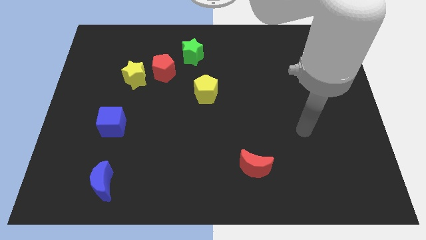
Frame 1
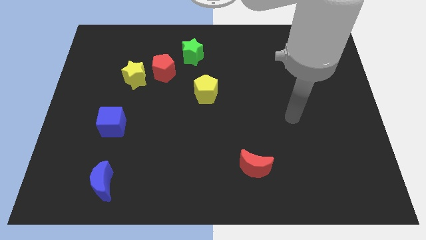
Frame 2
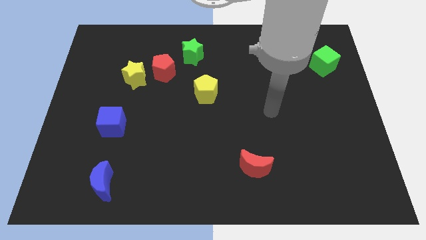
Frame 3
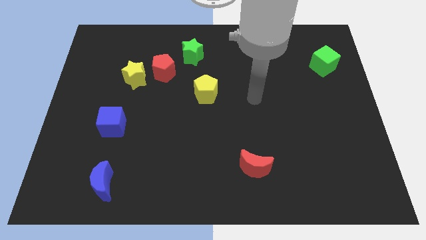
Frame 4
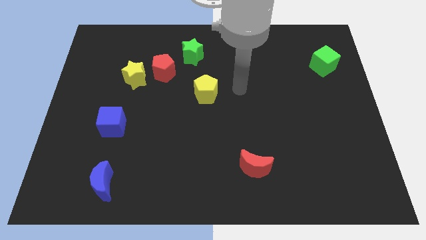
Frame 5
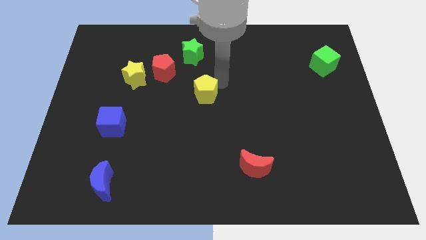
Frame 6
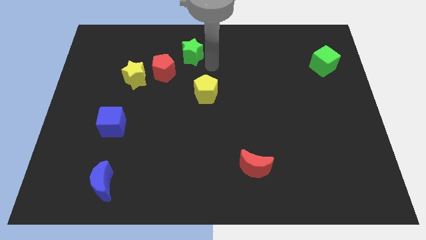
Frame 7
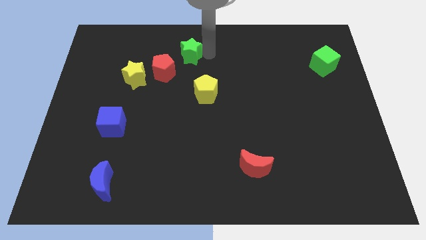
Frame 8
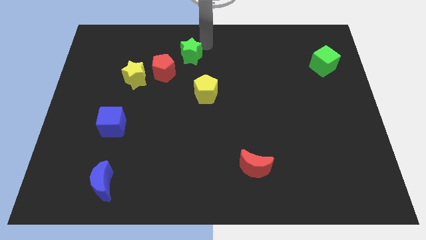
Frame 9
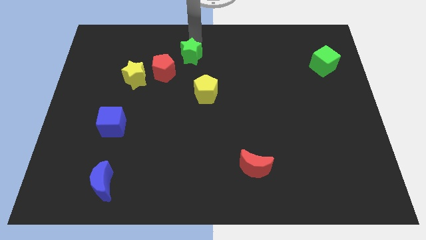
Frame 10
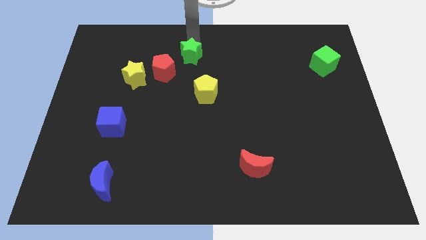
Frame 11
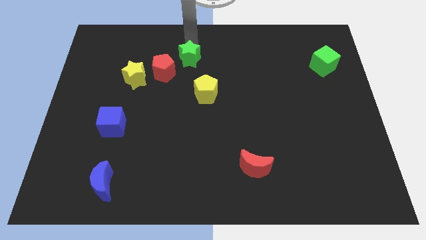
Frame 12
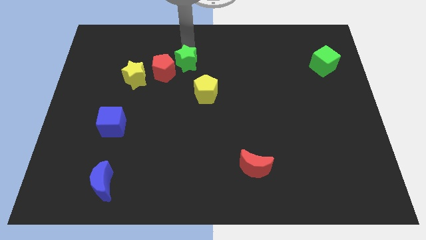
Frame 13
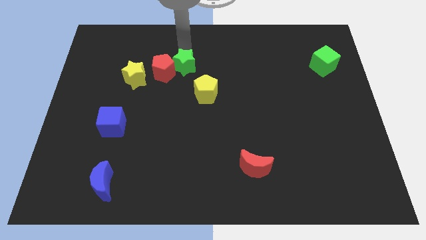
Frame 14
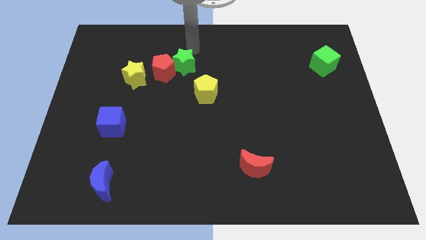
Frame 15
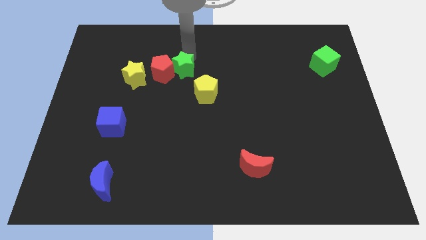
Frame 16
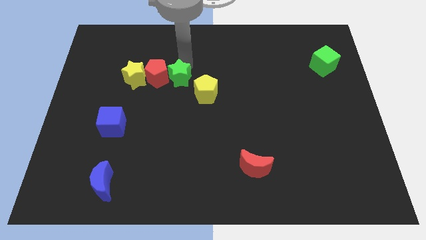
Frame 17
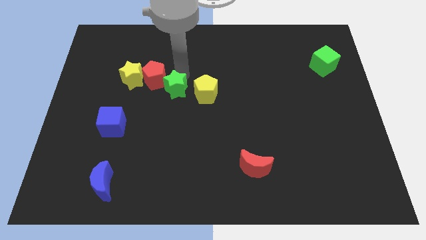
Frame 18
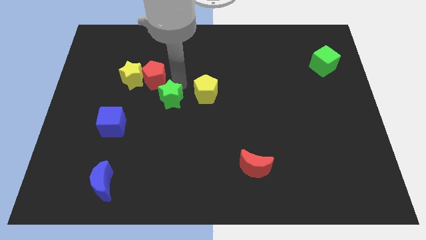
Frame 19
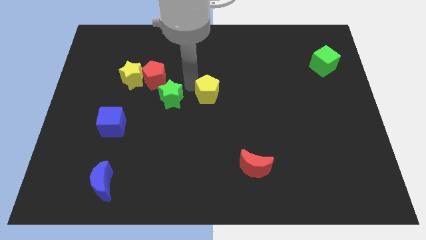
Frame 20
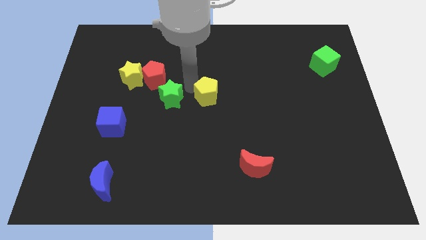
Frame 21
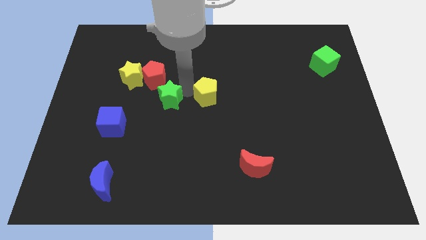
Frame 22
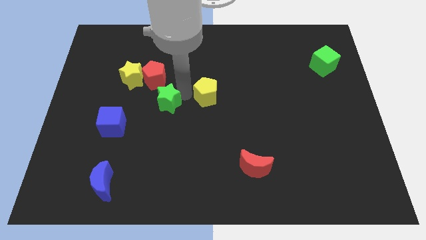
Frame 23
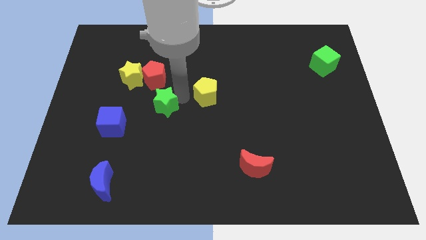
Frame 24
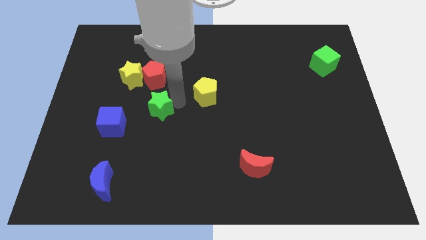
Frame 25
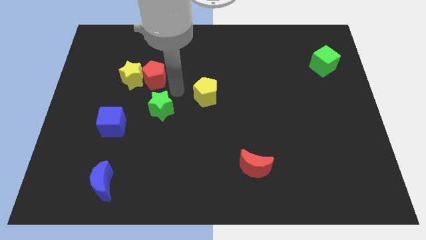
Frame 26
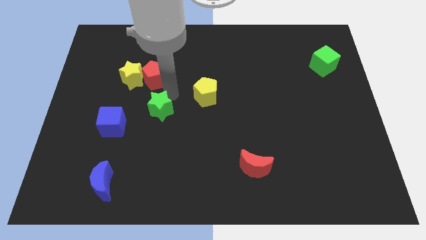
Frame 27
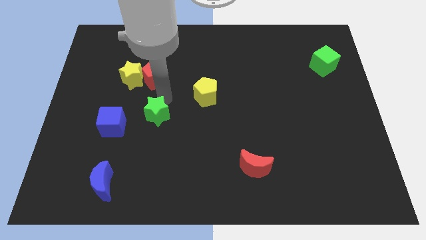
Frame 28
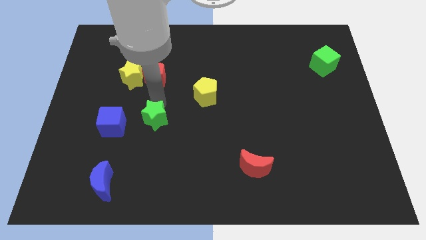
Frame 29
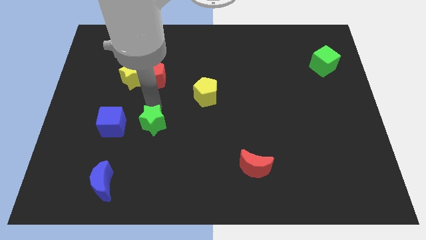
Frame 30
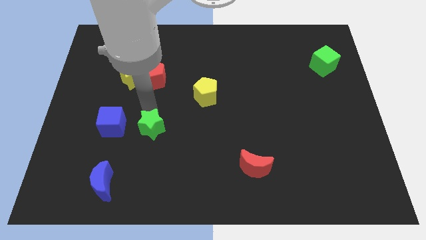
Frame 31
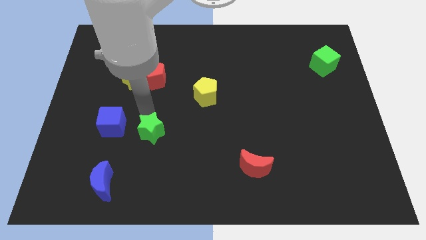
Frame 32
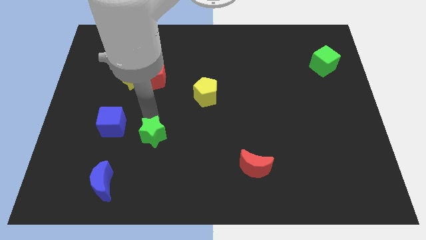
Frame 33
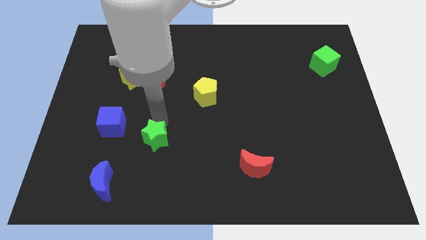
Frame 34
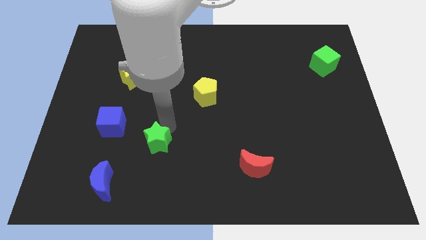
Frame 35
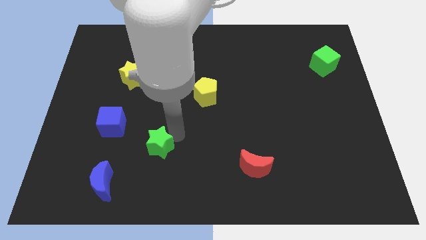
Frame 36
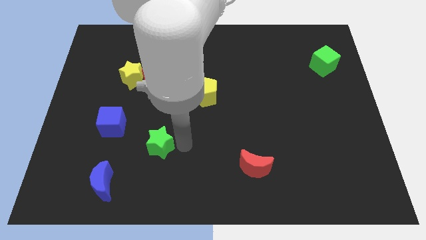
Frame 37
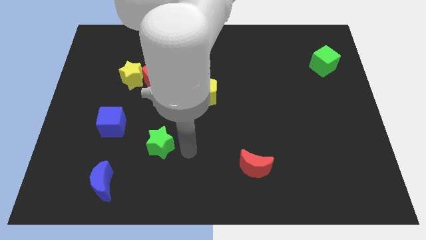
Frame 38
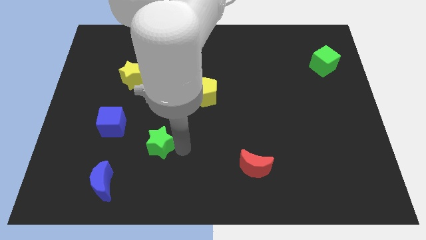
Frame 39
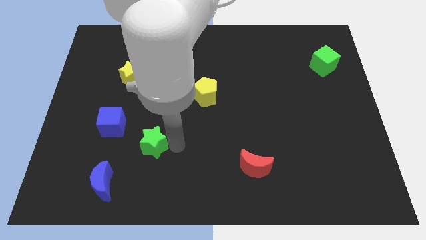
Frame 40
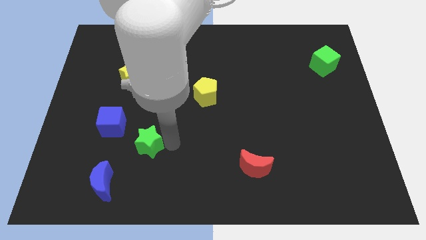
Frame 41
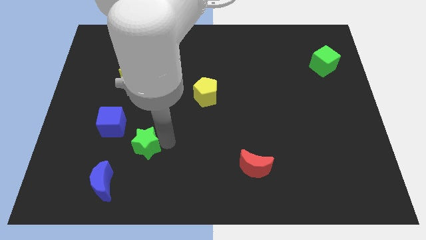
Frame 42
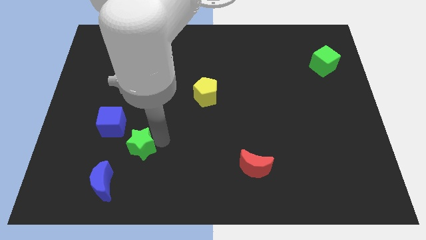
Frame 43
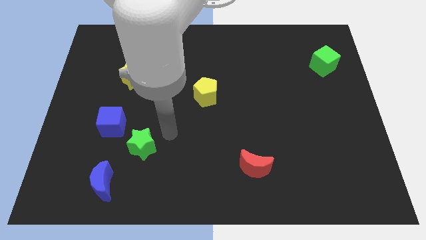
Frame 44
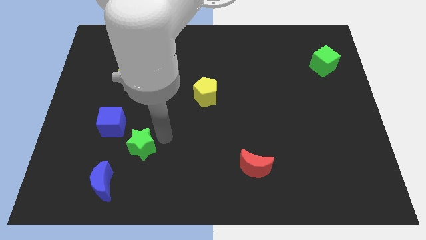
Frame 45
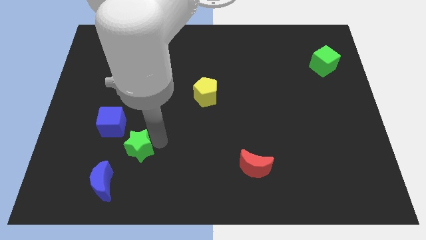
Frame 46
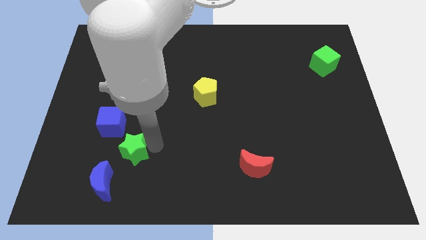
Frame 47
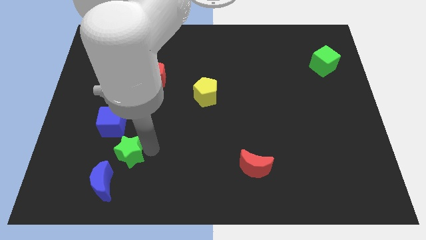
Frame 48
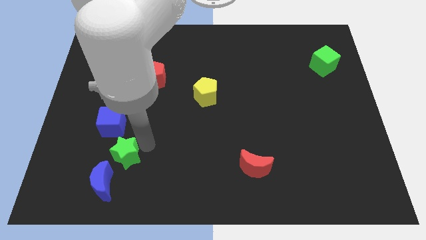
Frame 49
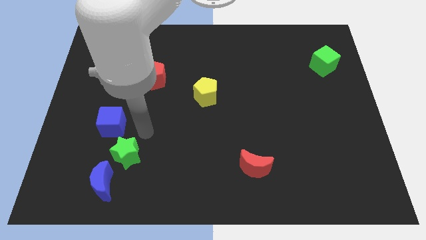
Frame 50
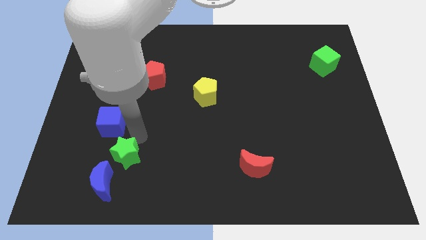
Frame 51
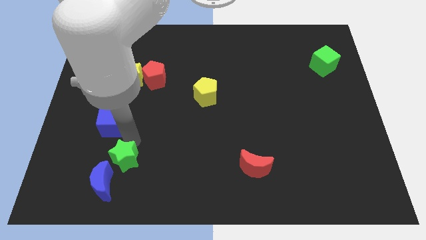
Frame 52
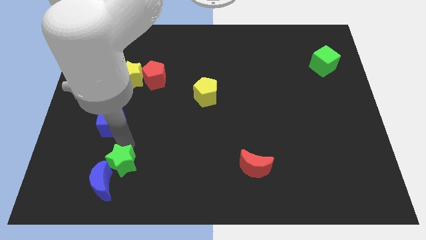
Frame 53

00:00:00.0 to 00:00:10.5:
push the green star close to the blue moon

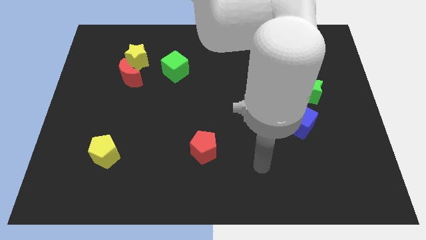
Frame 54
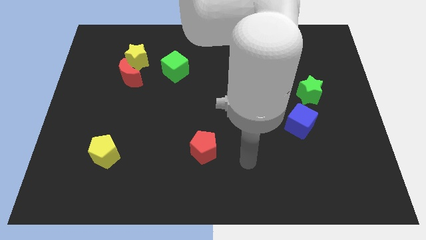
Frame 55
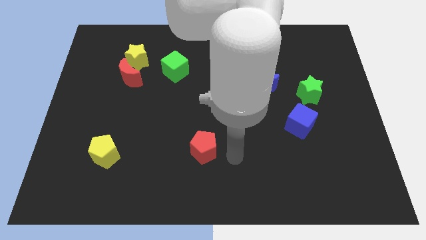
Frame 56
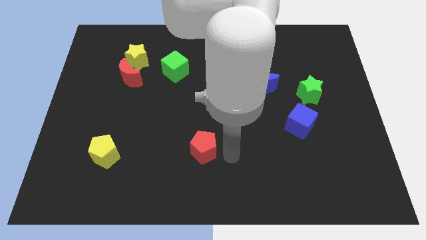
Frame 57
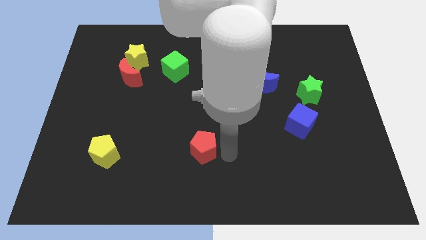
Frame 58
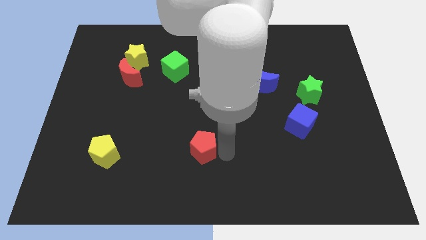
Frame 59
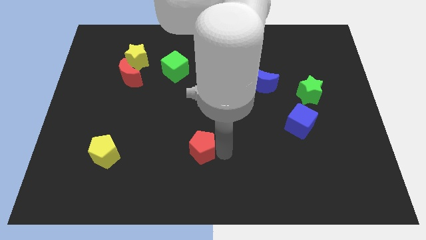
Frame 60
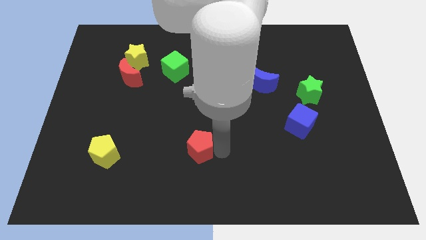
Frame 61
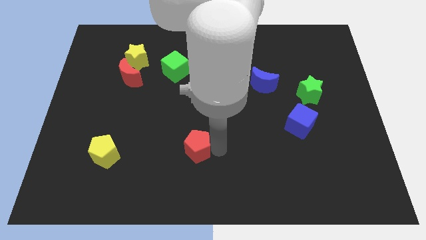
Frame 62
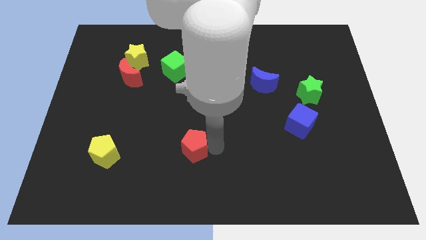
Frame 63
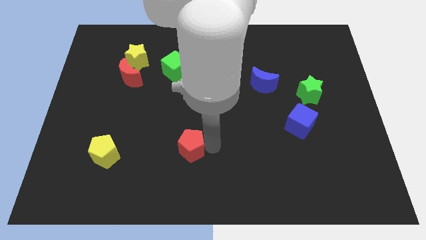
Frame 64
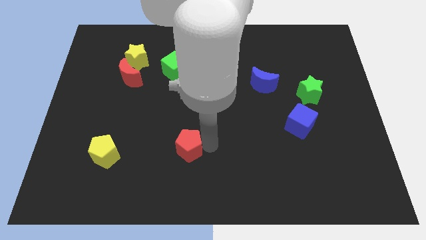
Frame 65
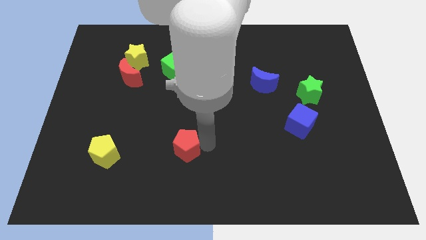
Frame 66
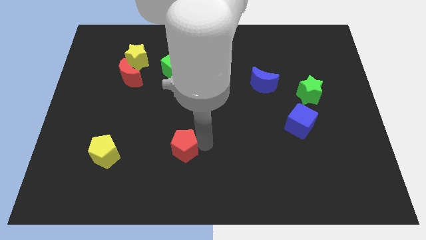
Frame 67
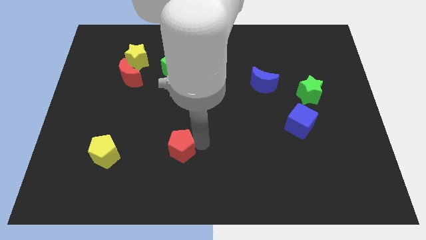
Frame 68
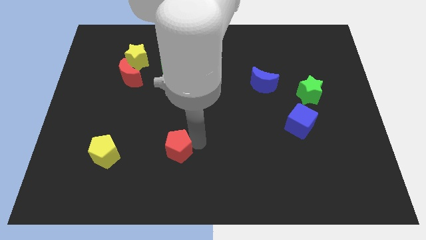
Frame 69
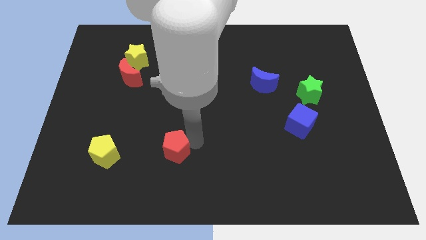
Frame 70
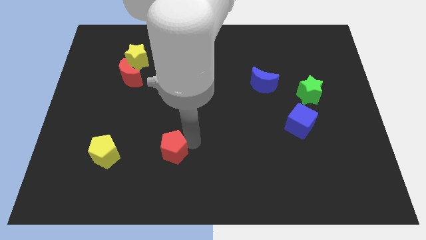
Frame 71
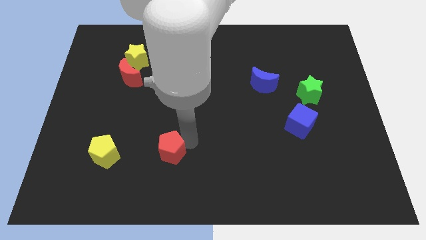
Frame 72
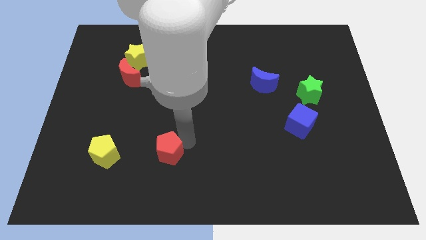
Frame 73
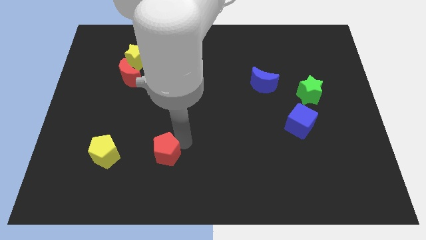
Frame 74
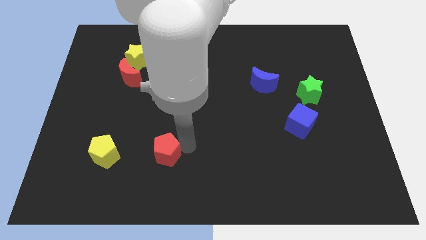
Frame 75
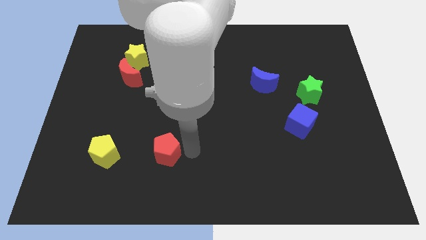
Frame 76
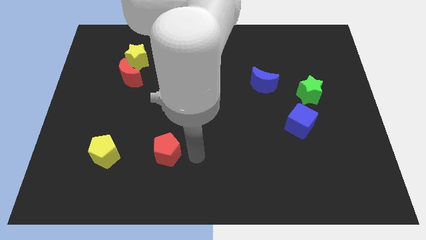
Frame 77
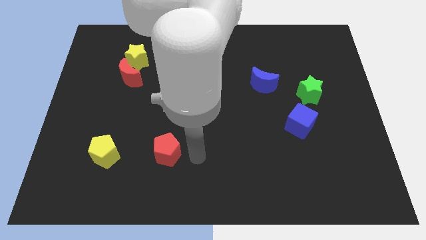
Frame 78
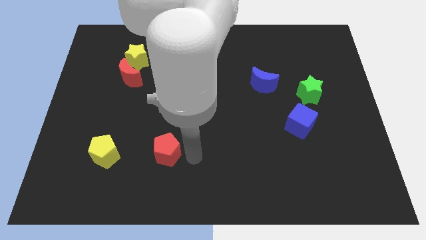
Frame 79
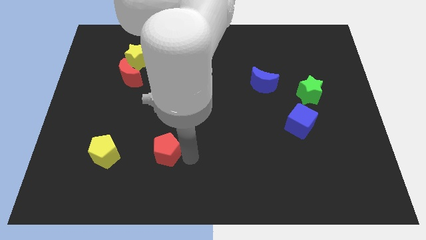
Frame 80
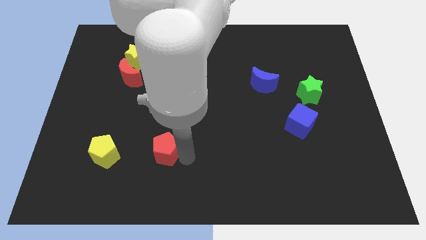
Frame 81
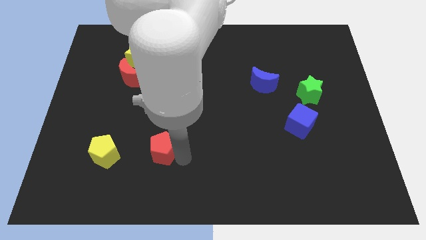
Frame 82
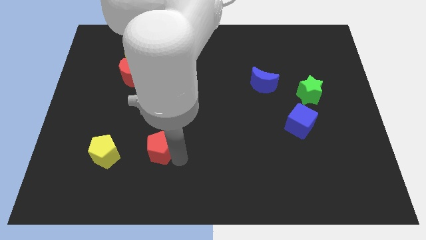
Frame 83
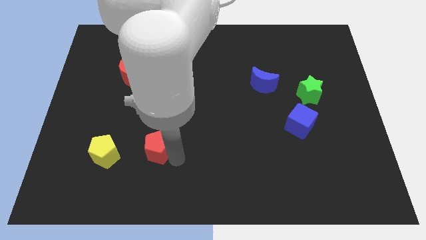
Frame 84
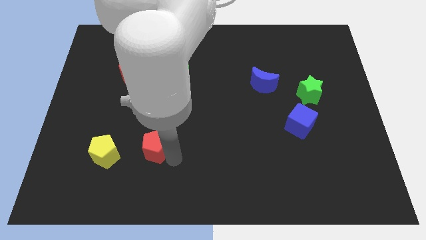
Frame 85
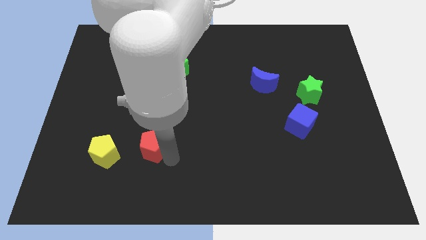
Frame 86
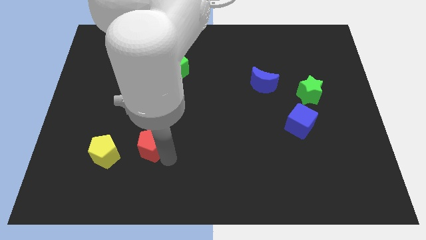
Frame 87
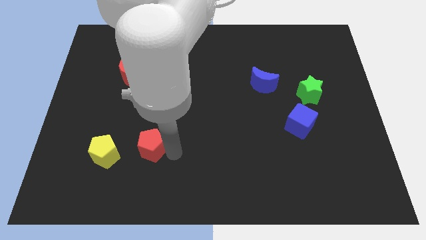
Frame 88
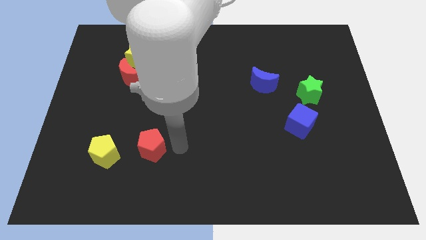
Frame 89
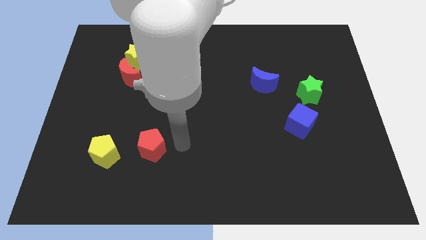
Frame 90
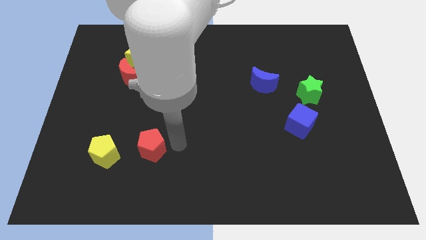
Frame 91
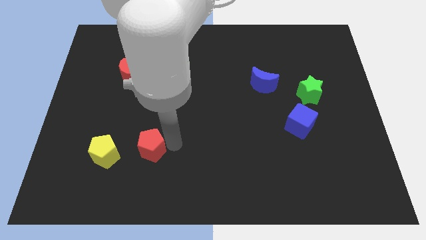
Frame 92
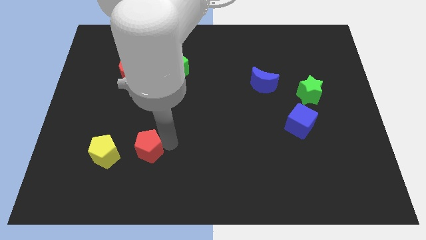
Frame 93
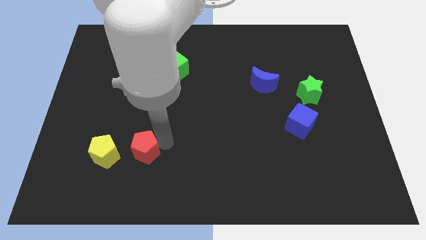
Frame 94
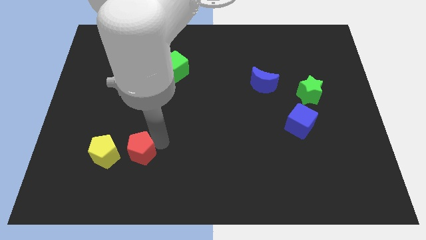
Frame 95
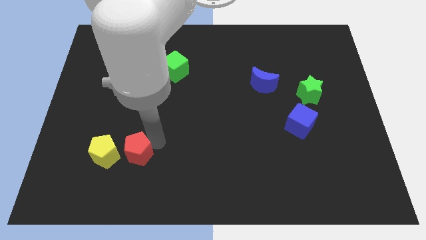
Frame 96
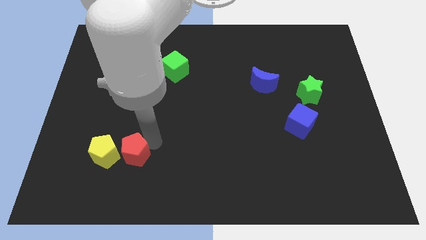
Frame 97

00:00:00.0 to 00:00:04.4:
move the red pentagon next to the yellow pentagon
